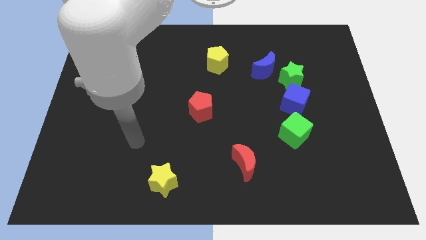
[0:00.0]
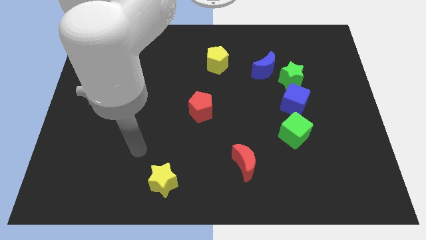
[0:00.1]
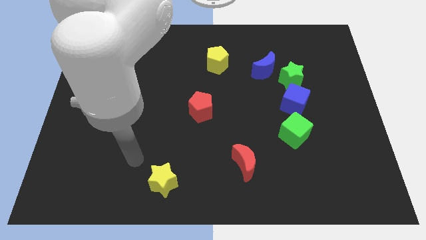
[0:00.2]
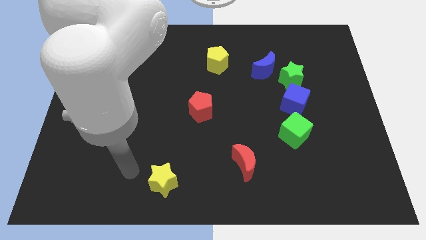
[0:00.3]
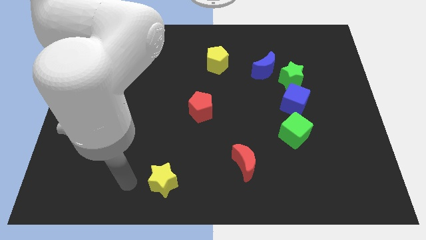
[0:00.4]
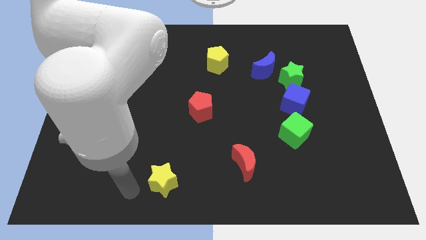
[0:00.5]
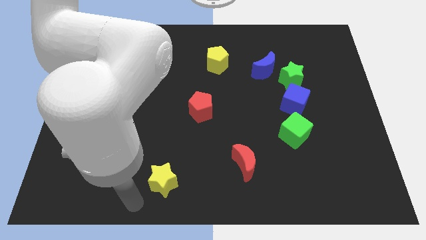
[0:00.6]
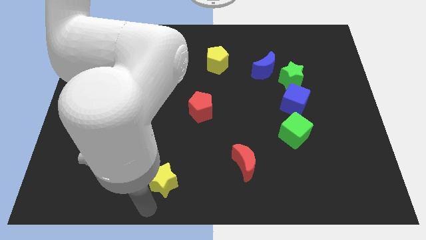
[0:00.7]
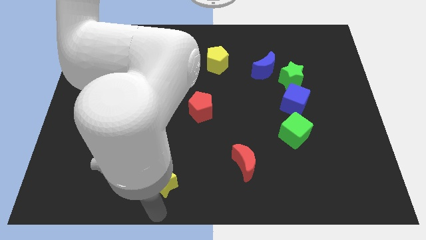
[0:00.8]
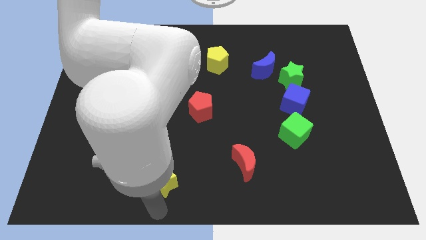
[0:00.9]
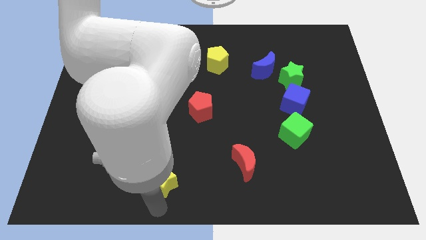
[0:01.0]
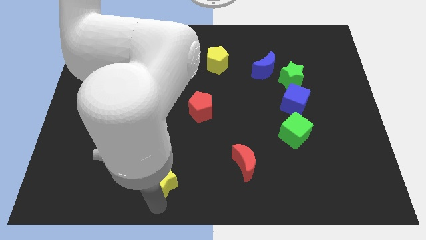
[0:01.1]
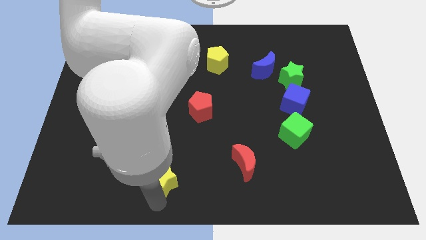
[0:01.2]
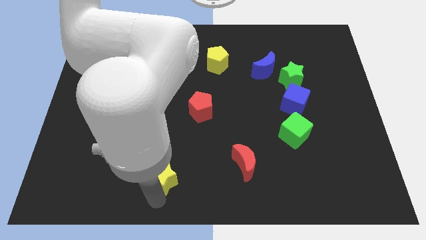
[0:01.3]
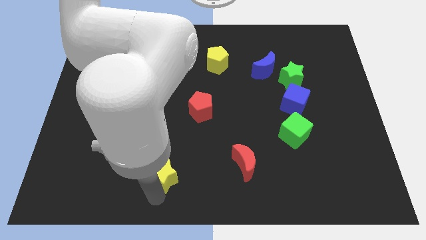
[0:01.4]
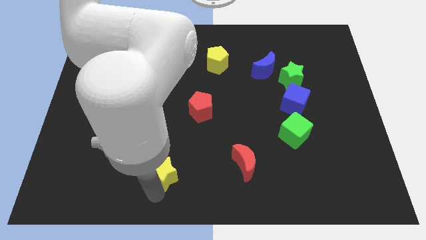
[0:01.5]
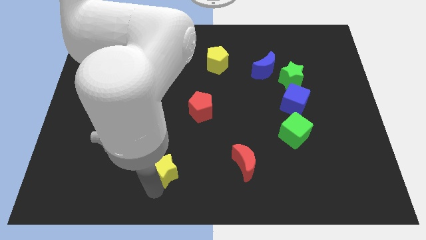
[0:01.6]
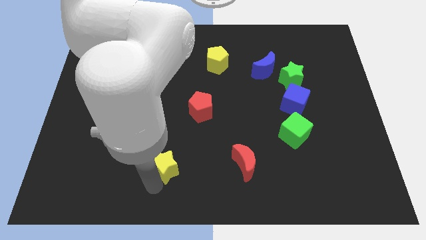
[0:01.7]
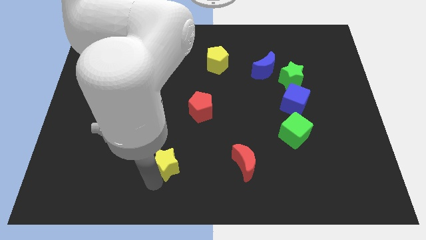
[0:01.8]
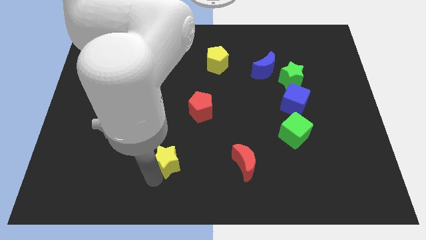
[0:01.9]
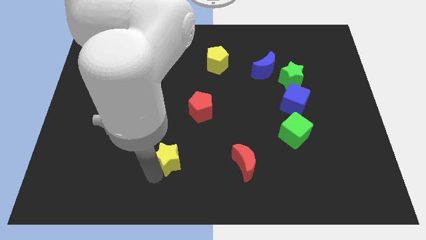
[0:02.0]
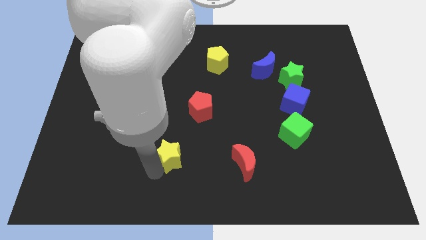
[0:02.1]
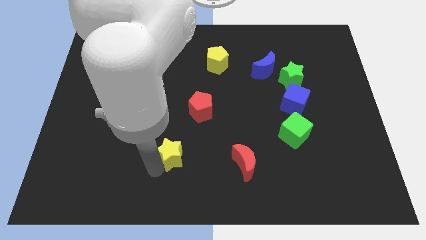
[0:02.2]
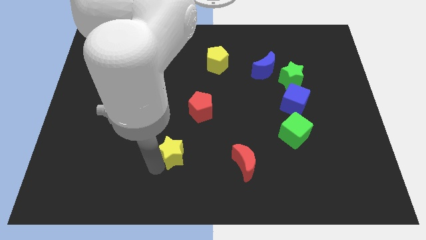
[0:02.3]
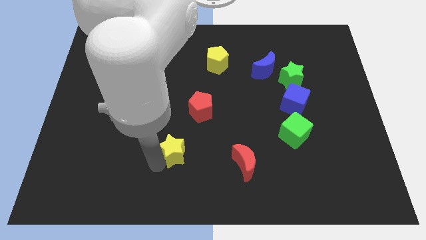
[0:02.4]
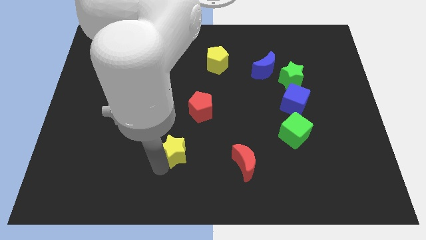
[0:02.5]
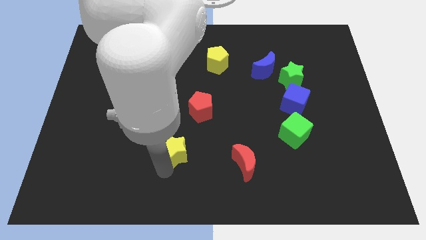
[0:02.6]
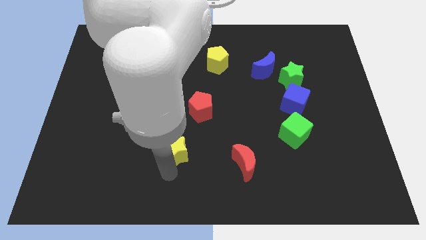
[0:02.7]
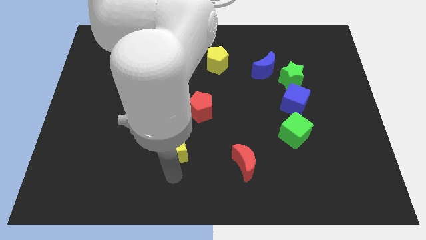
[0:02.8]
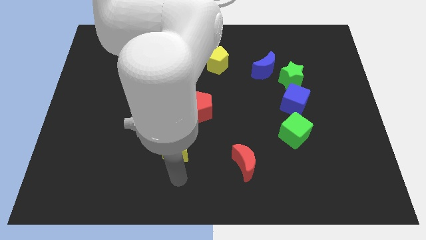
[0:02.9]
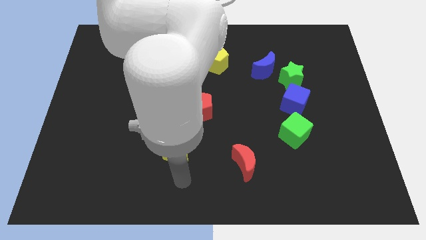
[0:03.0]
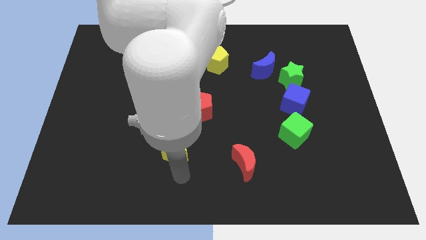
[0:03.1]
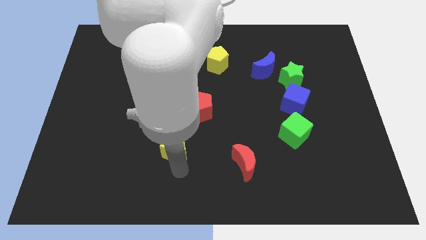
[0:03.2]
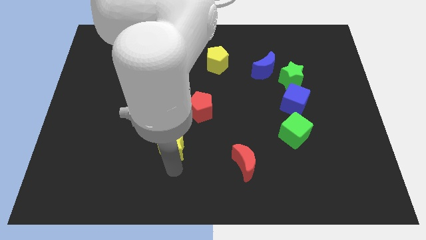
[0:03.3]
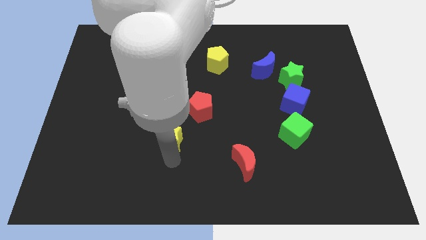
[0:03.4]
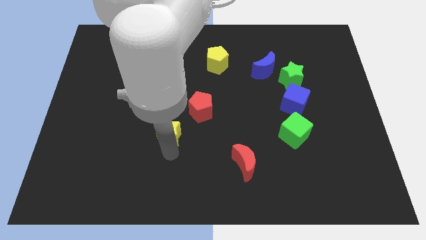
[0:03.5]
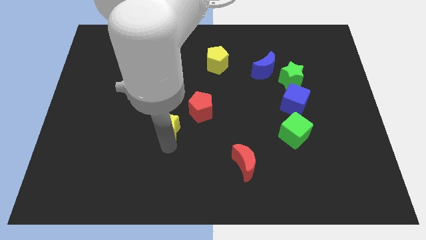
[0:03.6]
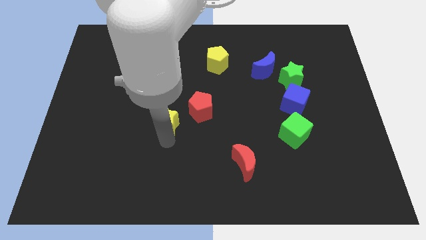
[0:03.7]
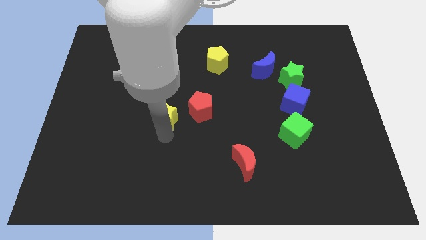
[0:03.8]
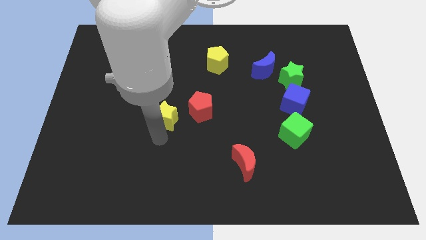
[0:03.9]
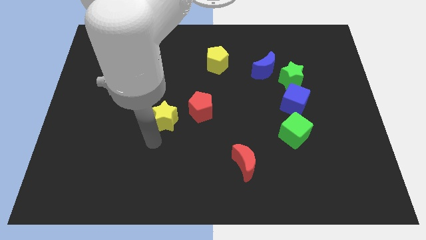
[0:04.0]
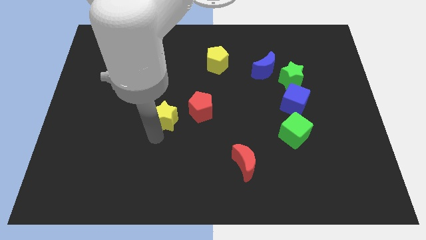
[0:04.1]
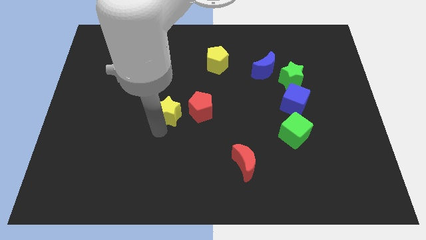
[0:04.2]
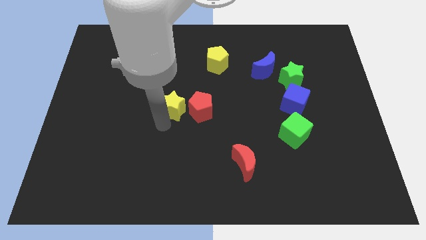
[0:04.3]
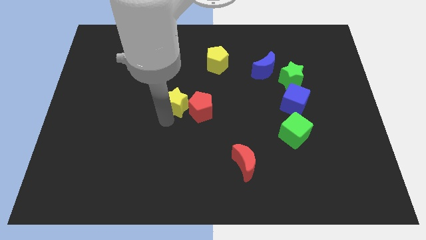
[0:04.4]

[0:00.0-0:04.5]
slide the yellow star up

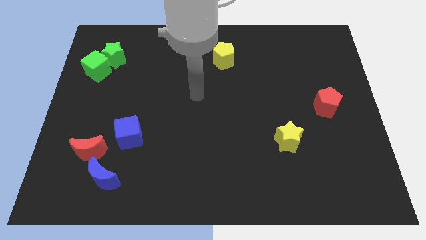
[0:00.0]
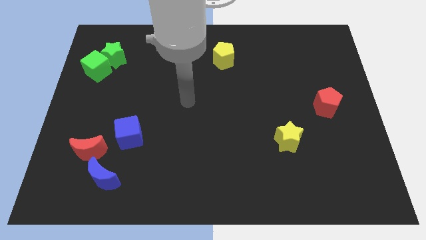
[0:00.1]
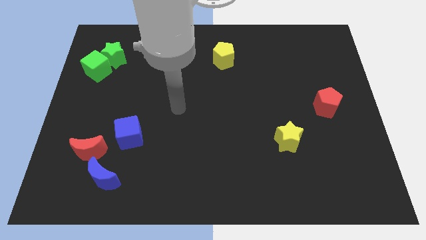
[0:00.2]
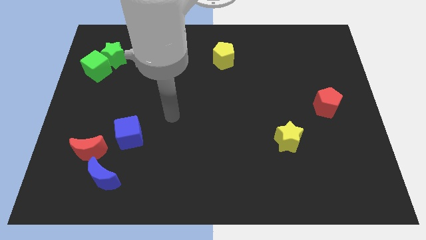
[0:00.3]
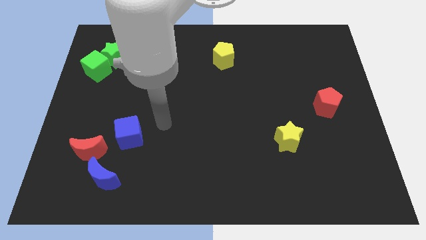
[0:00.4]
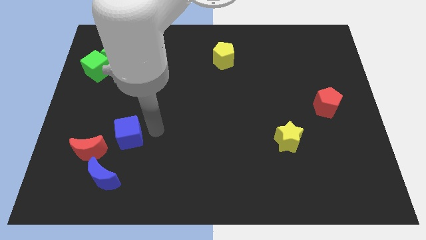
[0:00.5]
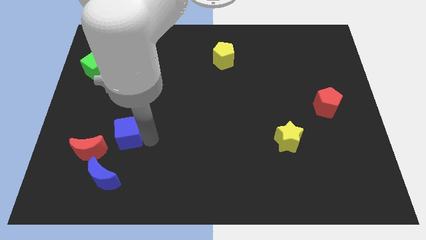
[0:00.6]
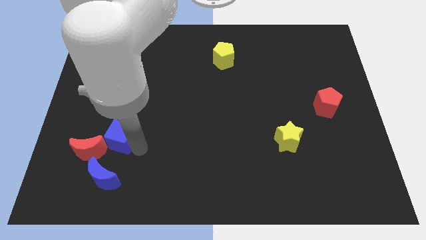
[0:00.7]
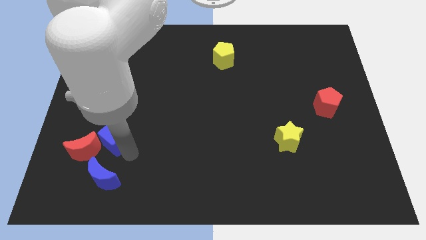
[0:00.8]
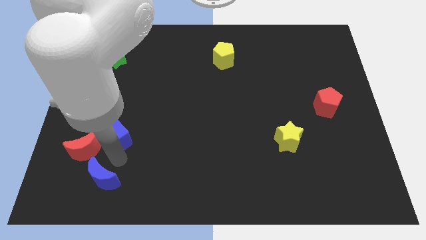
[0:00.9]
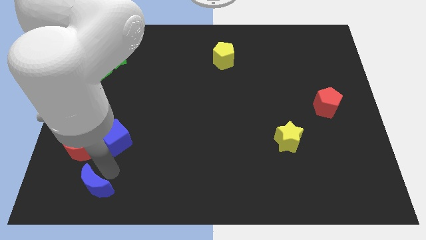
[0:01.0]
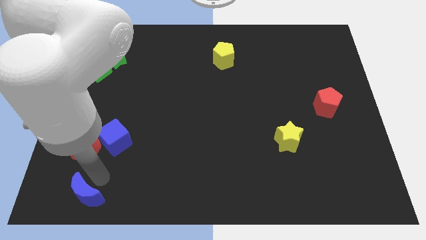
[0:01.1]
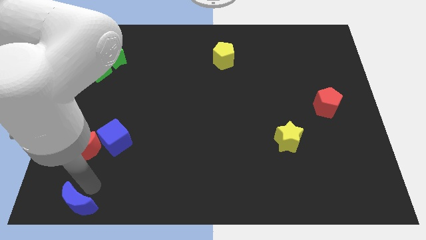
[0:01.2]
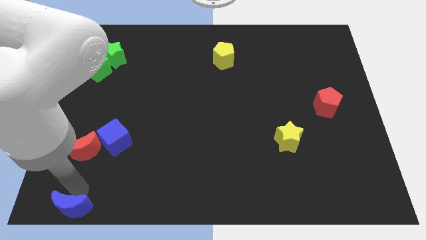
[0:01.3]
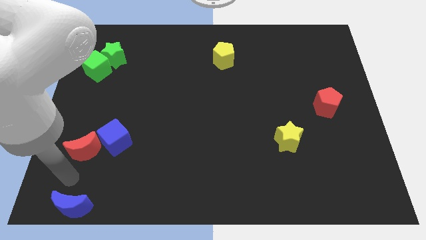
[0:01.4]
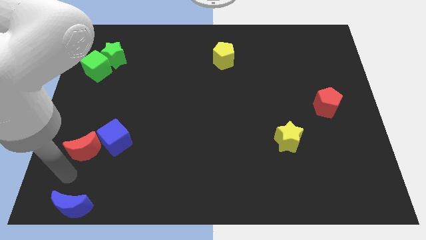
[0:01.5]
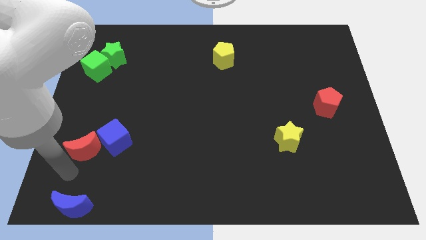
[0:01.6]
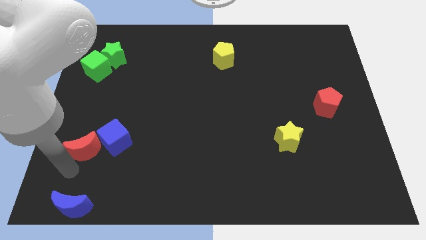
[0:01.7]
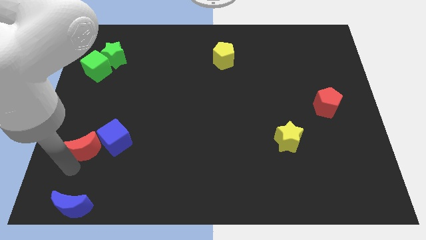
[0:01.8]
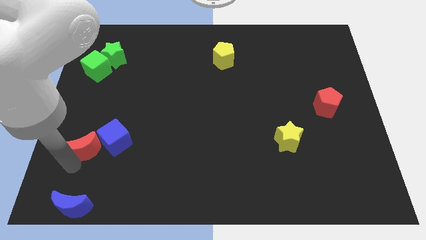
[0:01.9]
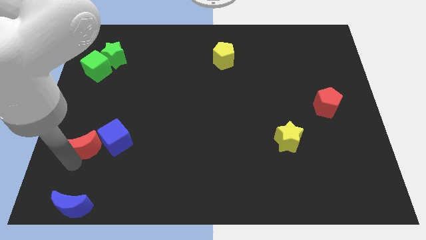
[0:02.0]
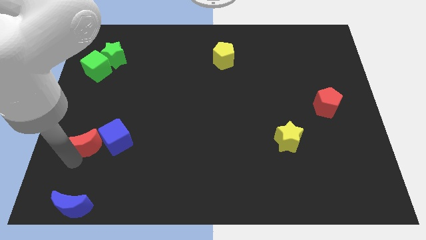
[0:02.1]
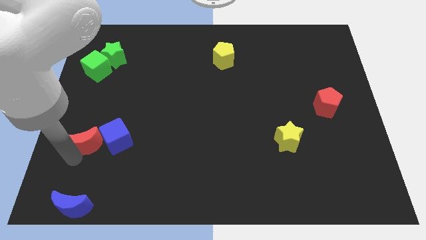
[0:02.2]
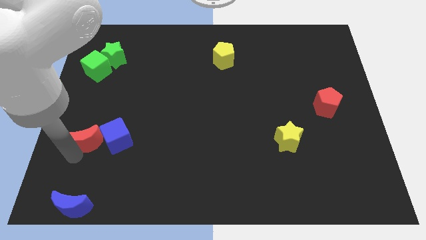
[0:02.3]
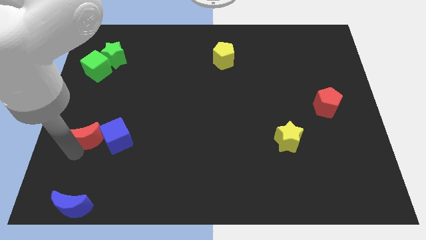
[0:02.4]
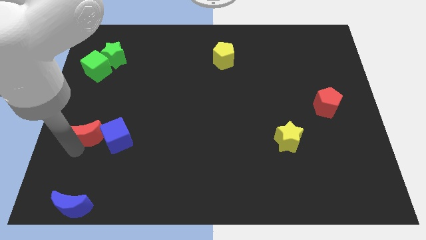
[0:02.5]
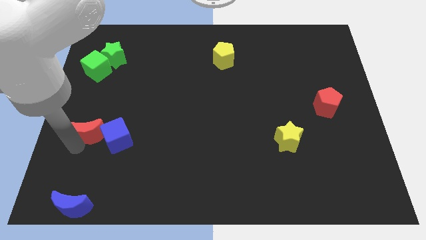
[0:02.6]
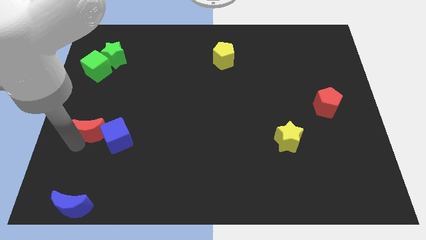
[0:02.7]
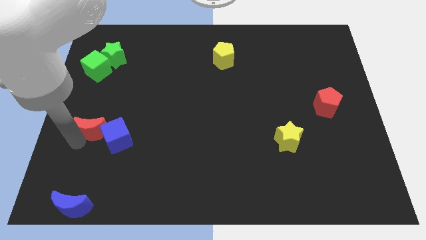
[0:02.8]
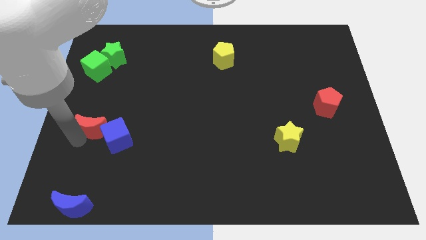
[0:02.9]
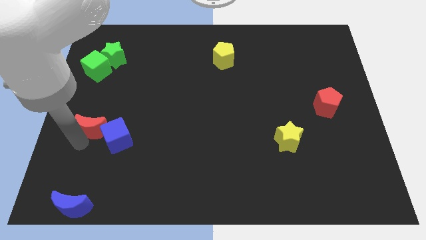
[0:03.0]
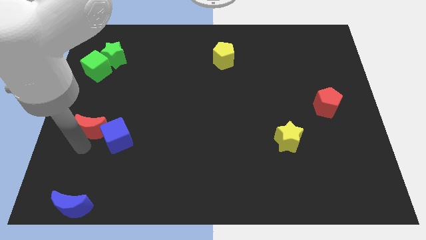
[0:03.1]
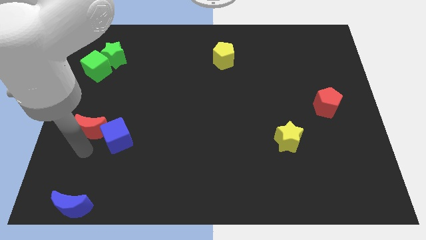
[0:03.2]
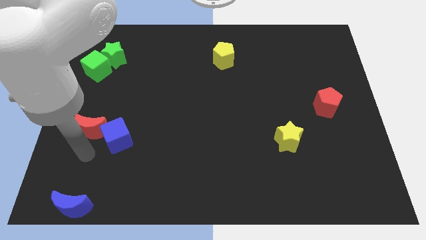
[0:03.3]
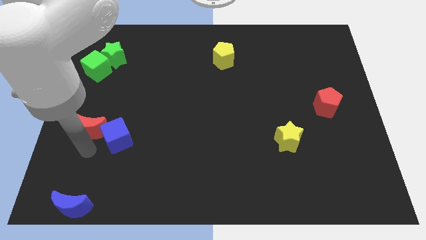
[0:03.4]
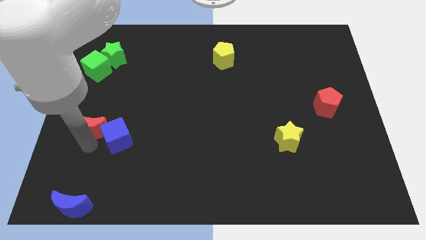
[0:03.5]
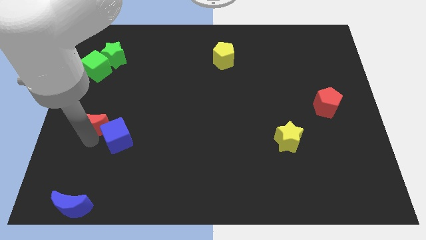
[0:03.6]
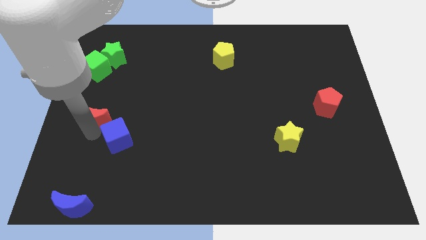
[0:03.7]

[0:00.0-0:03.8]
push the red moon upwards somewhat
